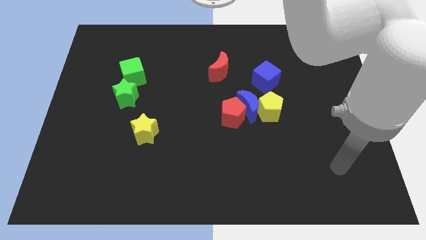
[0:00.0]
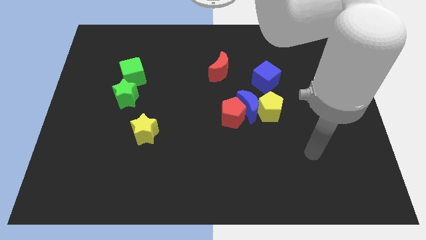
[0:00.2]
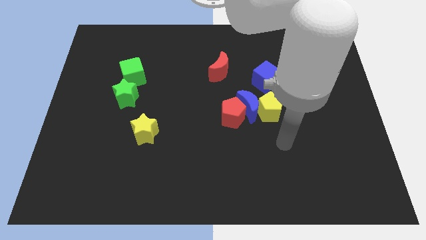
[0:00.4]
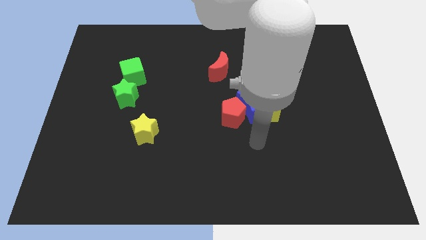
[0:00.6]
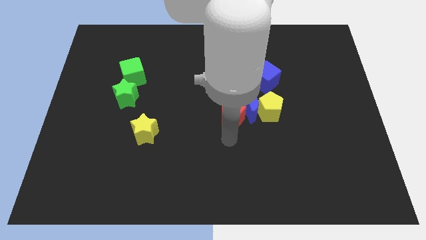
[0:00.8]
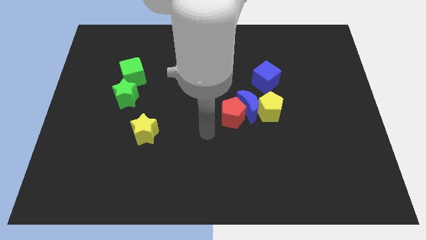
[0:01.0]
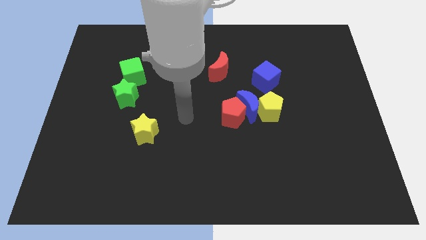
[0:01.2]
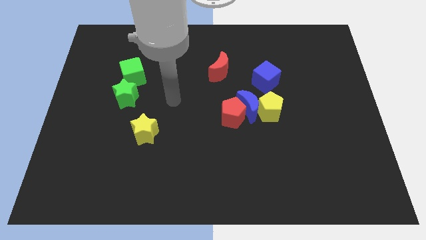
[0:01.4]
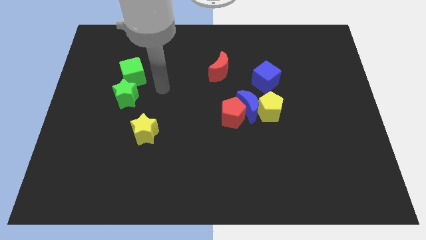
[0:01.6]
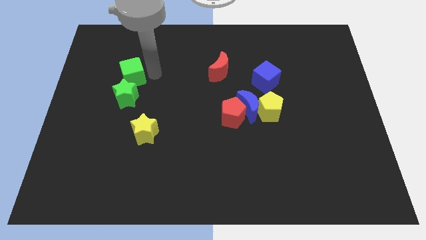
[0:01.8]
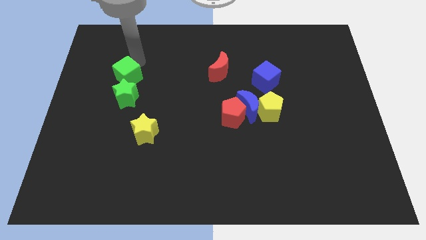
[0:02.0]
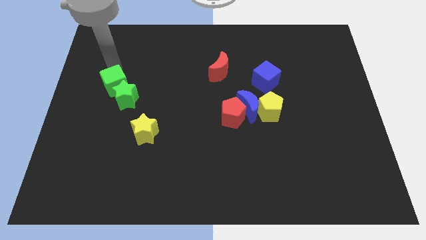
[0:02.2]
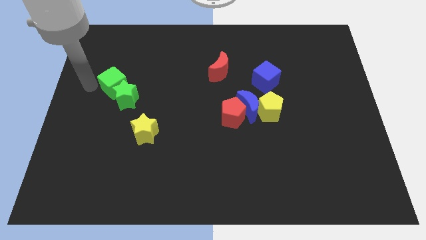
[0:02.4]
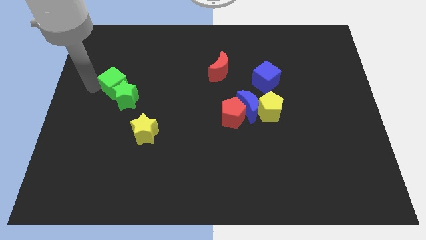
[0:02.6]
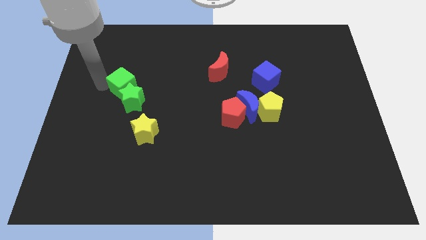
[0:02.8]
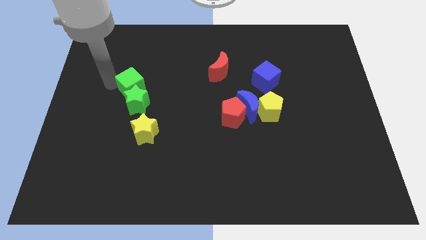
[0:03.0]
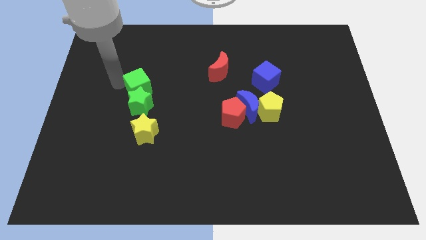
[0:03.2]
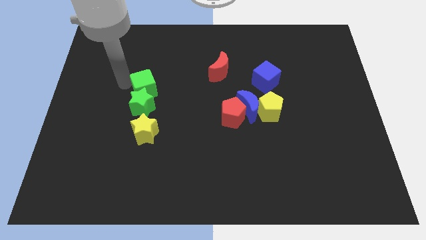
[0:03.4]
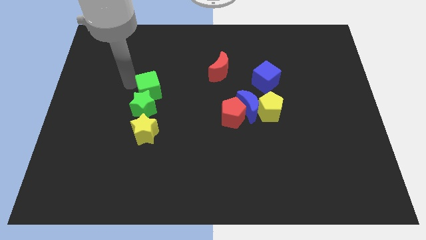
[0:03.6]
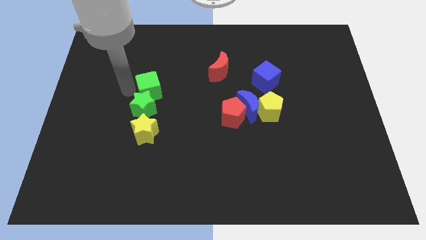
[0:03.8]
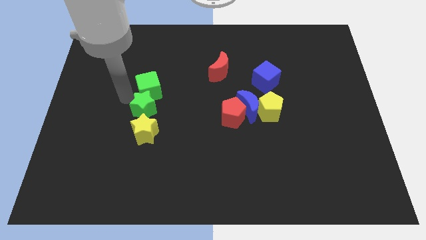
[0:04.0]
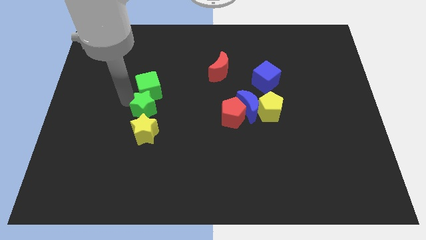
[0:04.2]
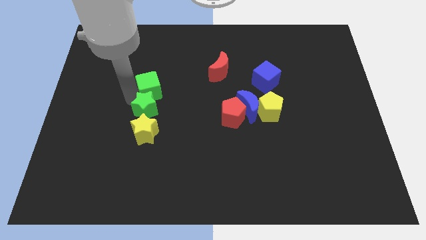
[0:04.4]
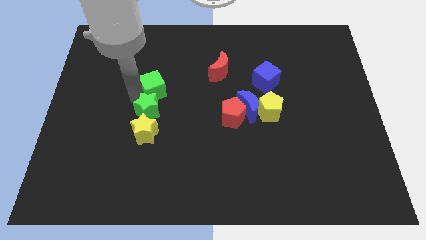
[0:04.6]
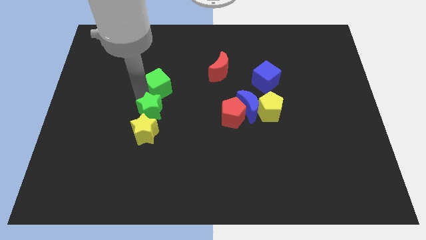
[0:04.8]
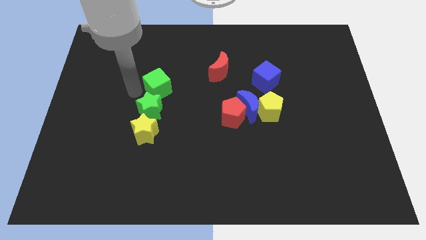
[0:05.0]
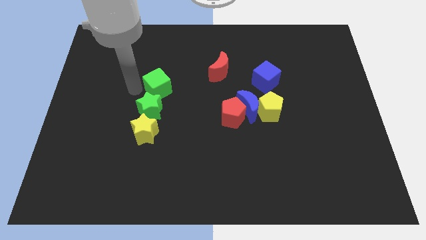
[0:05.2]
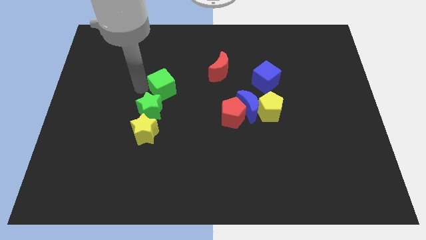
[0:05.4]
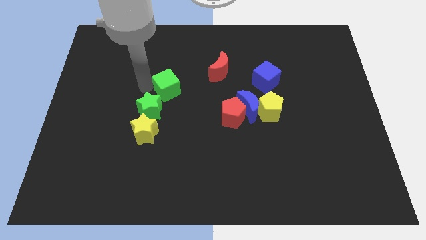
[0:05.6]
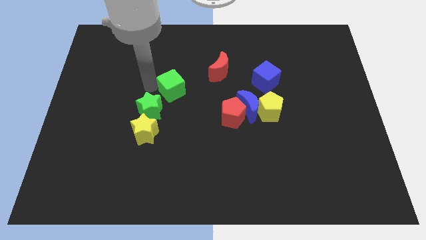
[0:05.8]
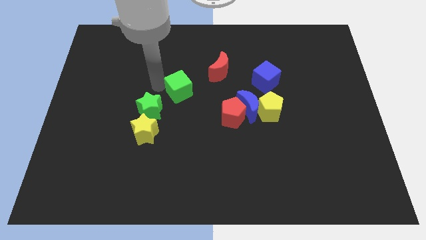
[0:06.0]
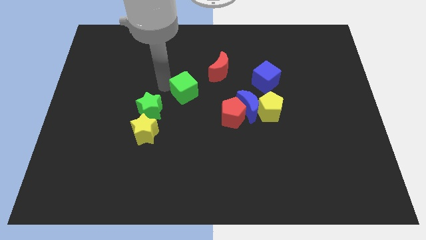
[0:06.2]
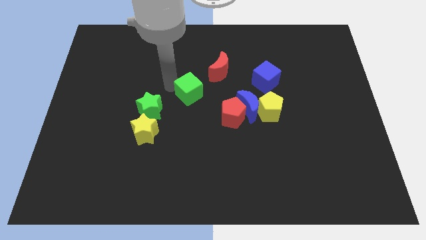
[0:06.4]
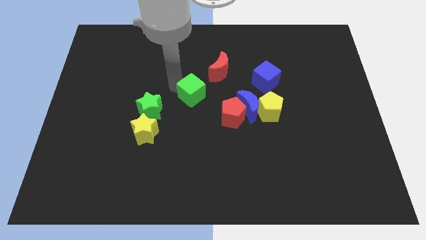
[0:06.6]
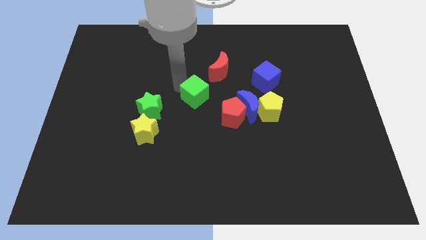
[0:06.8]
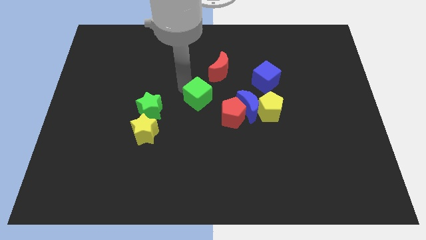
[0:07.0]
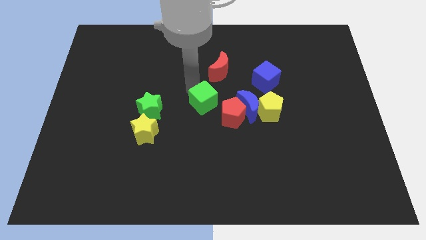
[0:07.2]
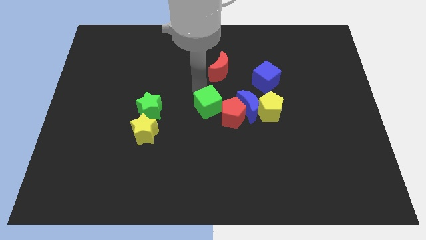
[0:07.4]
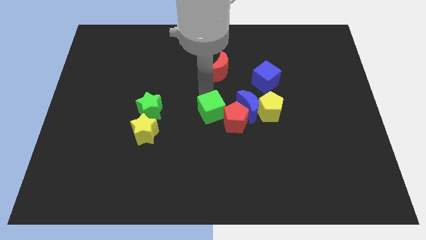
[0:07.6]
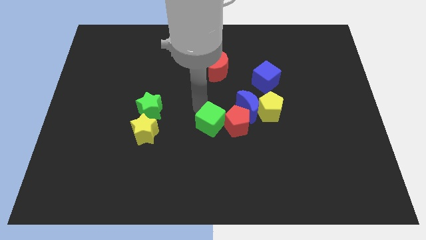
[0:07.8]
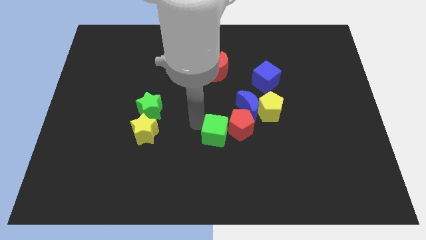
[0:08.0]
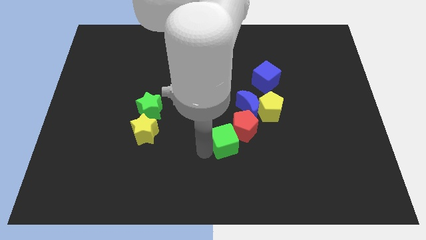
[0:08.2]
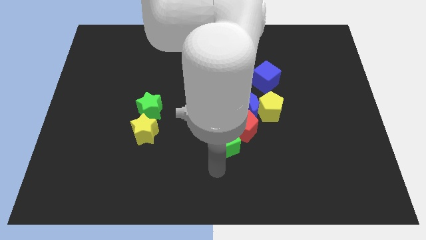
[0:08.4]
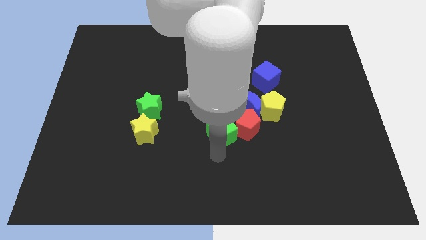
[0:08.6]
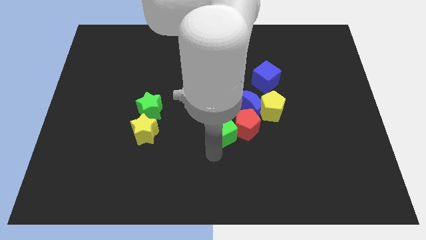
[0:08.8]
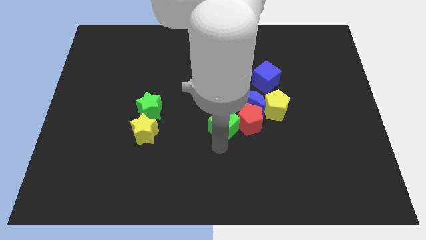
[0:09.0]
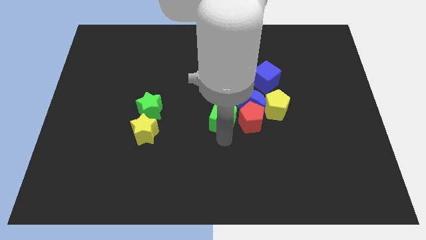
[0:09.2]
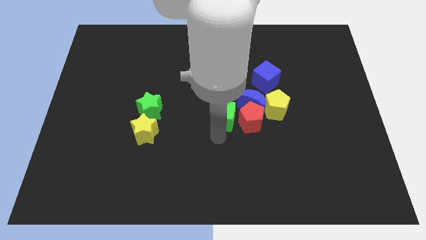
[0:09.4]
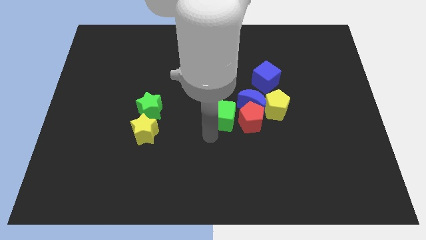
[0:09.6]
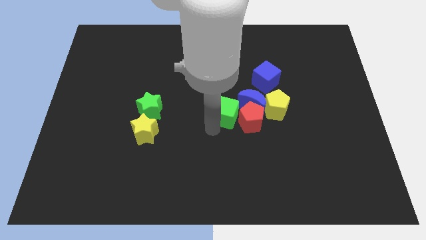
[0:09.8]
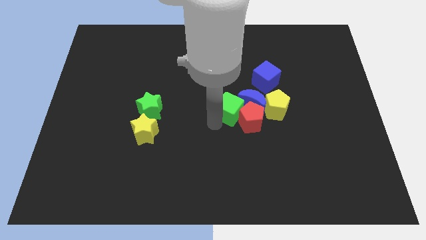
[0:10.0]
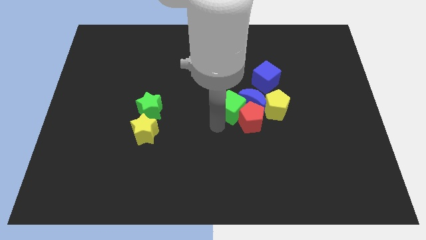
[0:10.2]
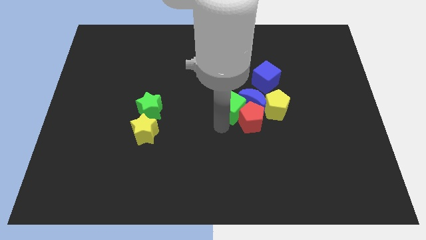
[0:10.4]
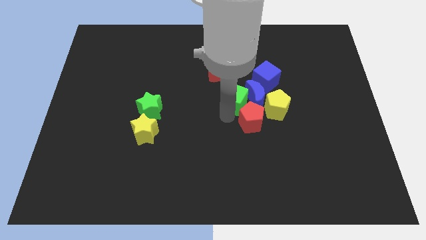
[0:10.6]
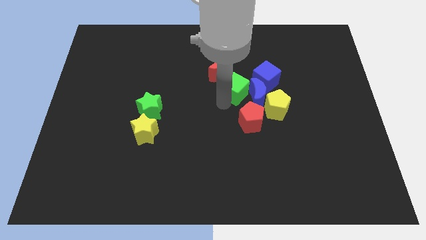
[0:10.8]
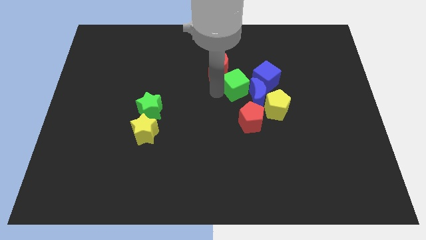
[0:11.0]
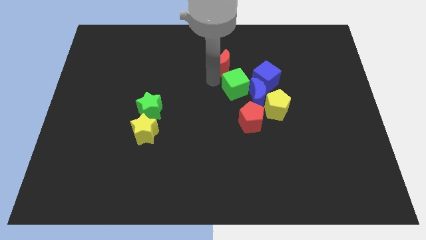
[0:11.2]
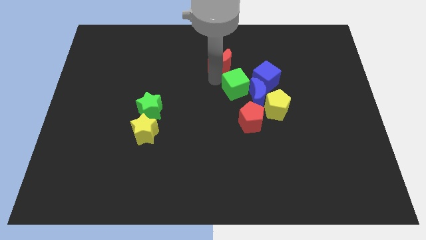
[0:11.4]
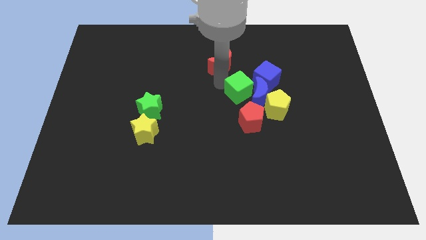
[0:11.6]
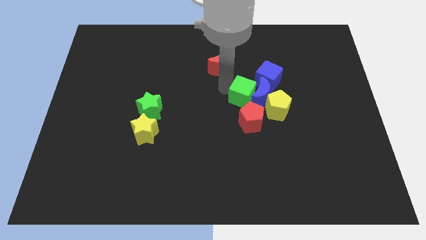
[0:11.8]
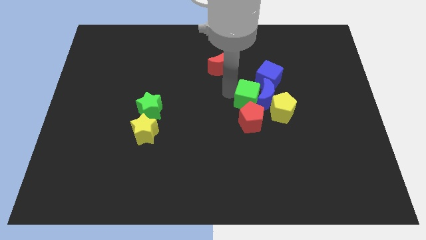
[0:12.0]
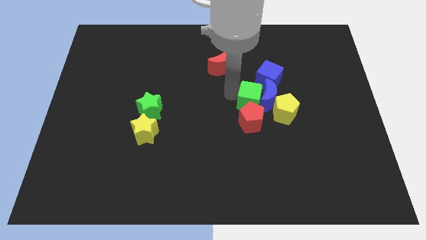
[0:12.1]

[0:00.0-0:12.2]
slide the green cube to the top right side of the red pentagon

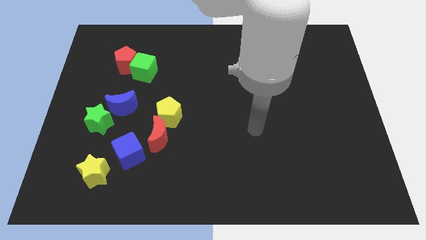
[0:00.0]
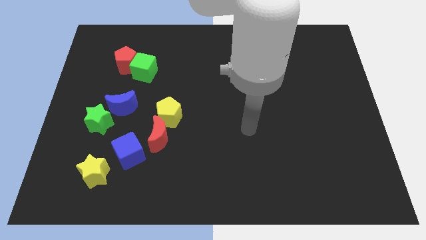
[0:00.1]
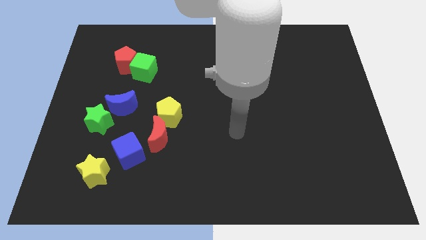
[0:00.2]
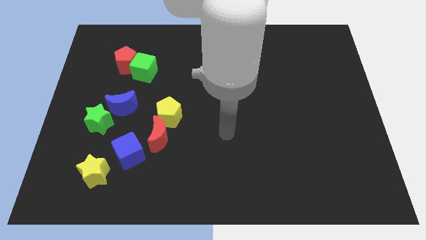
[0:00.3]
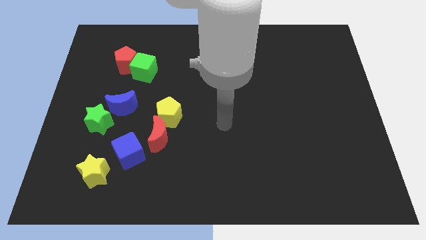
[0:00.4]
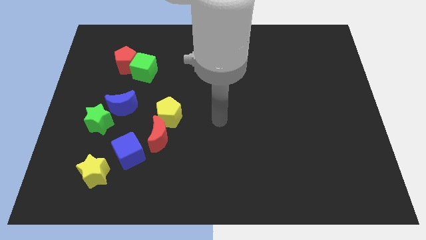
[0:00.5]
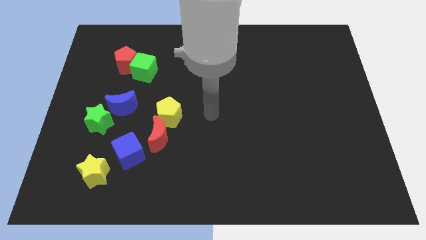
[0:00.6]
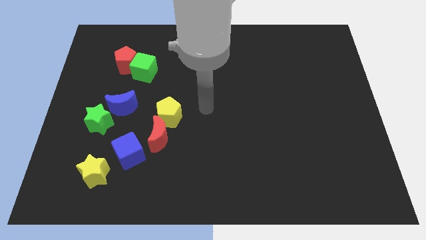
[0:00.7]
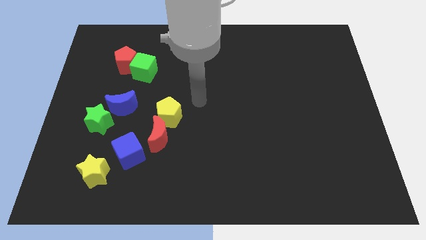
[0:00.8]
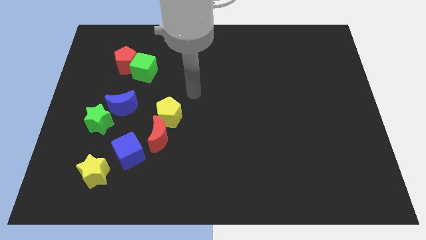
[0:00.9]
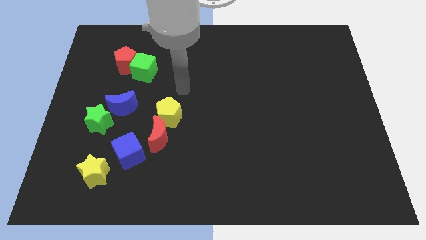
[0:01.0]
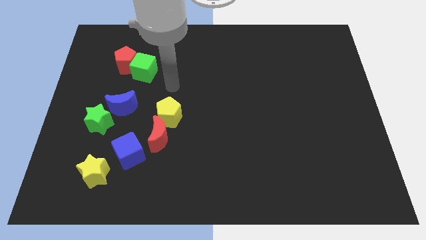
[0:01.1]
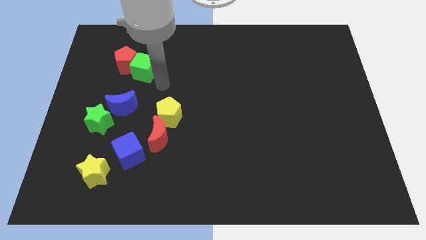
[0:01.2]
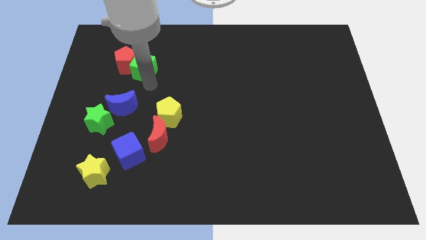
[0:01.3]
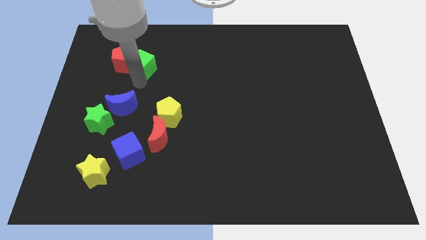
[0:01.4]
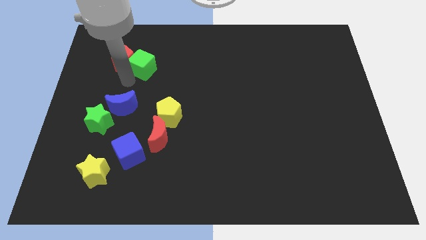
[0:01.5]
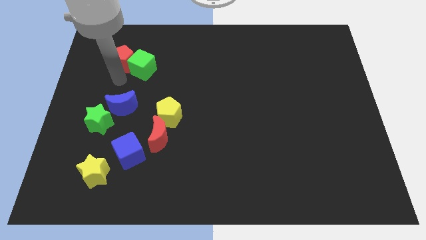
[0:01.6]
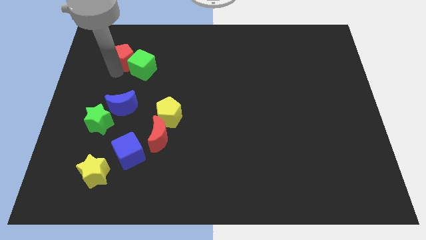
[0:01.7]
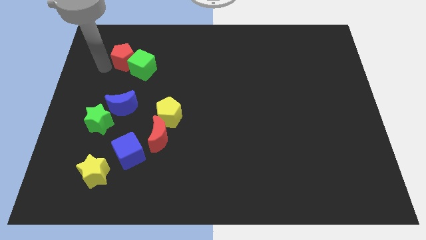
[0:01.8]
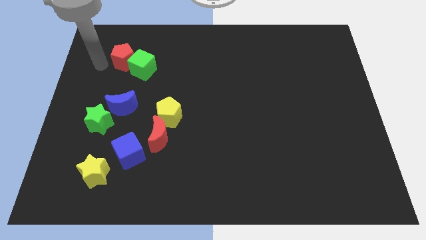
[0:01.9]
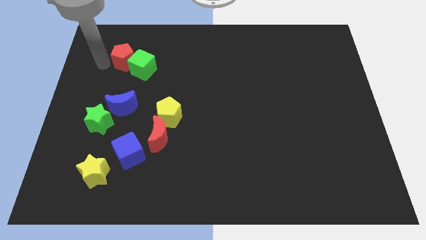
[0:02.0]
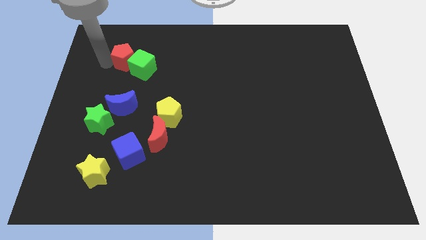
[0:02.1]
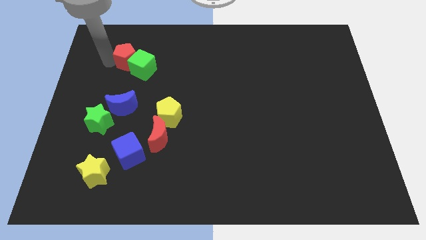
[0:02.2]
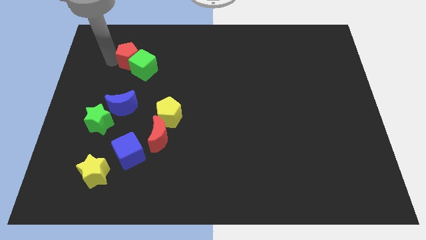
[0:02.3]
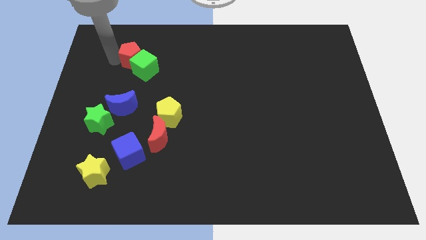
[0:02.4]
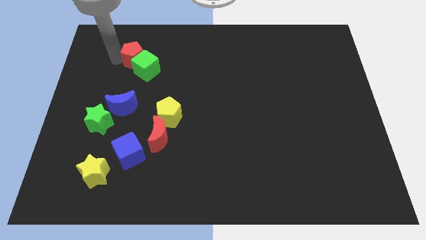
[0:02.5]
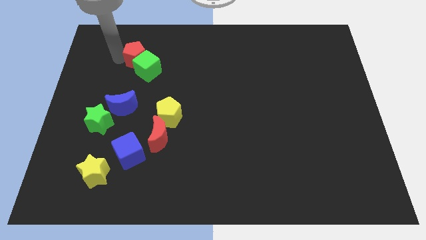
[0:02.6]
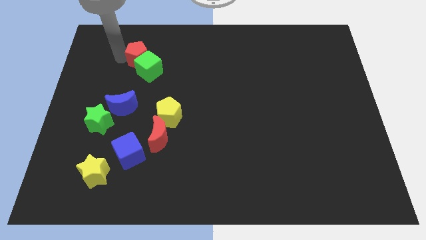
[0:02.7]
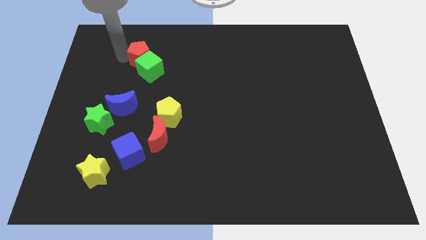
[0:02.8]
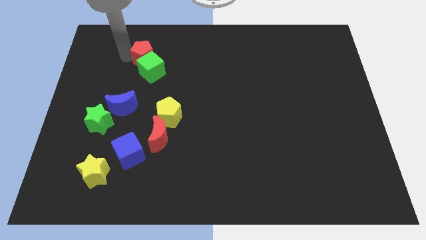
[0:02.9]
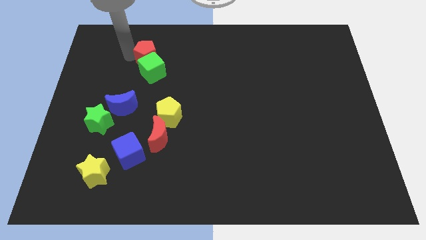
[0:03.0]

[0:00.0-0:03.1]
push the red pentagon diagonally up and to the right of the green cube
